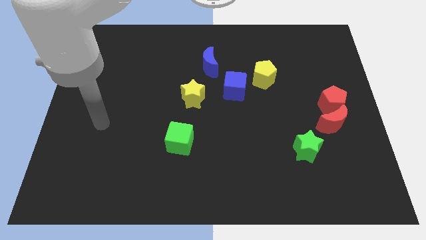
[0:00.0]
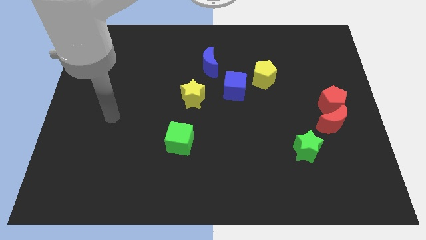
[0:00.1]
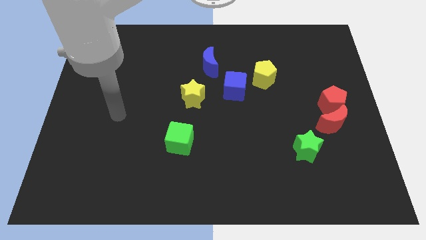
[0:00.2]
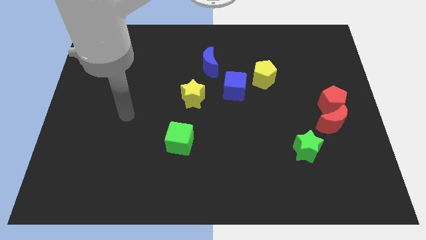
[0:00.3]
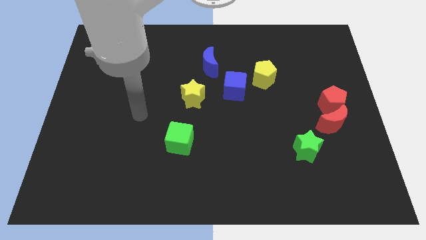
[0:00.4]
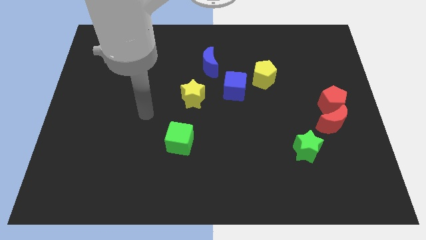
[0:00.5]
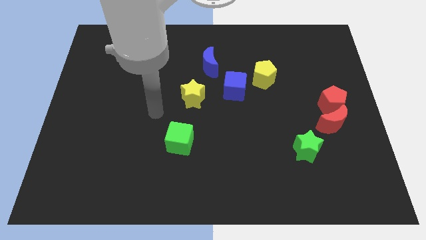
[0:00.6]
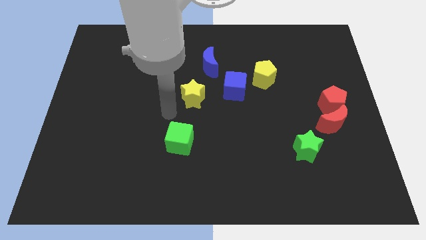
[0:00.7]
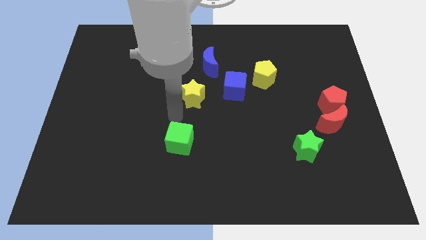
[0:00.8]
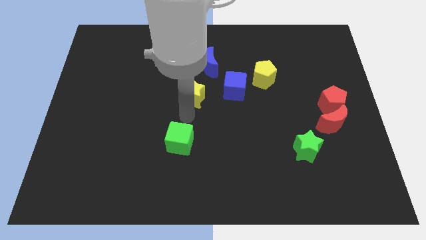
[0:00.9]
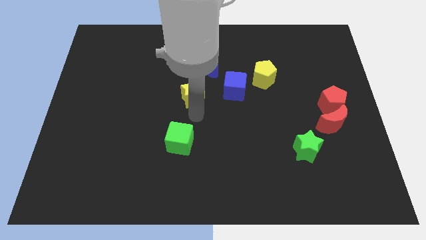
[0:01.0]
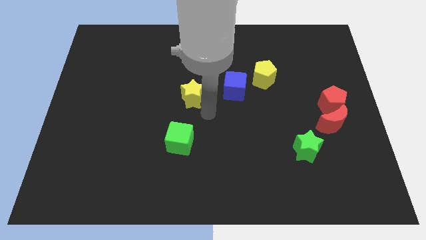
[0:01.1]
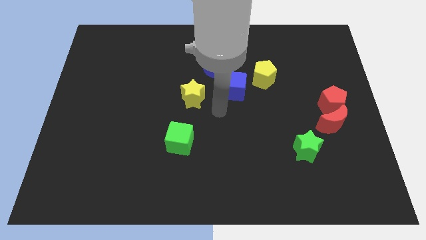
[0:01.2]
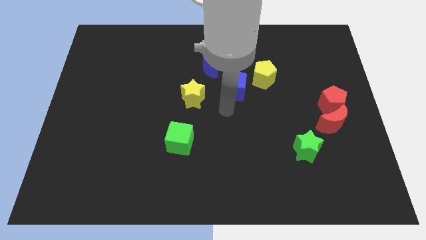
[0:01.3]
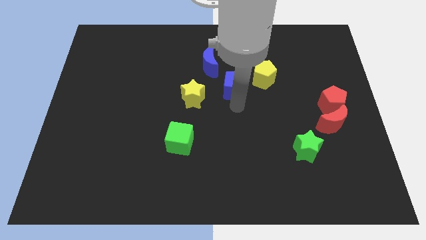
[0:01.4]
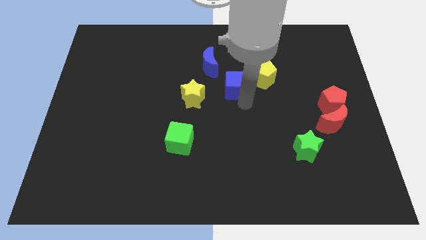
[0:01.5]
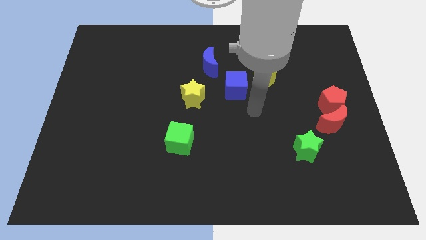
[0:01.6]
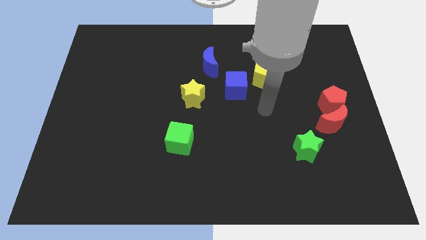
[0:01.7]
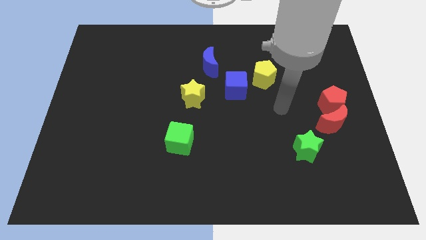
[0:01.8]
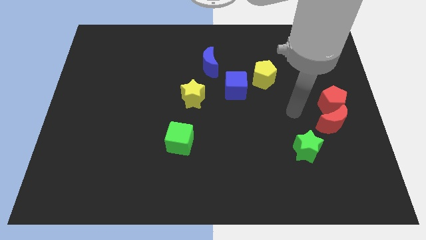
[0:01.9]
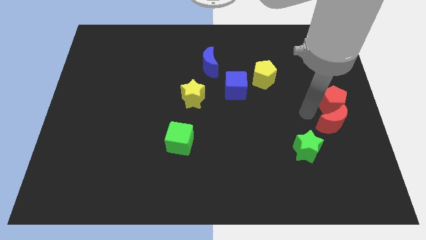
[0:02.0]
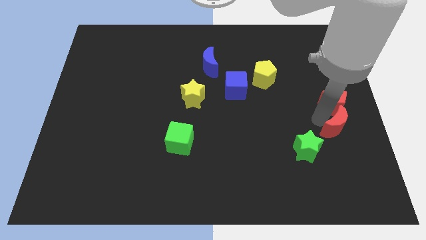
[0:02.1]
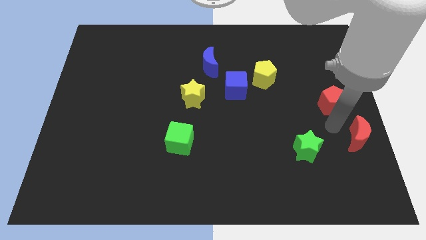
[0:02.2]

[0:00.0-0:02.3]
pull the red pentagon apart from the red moon

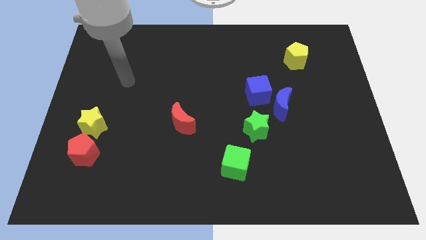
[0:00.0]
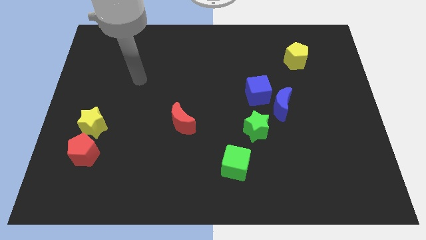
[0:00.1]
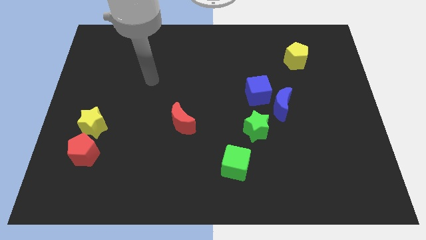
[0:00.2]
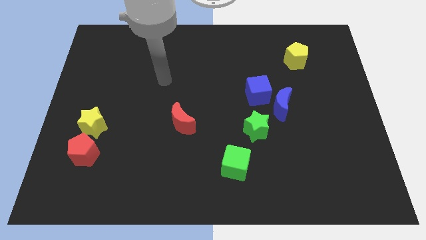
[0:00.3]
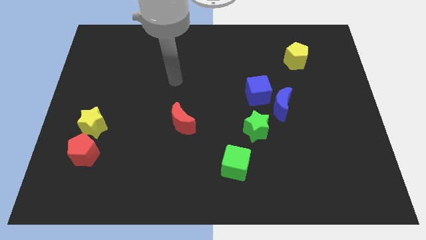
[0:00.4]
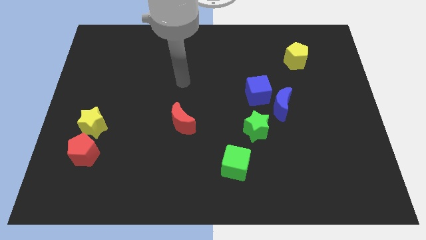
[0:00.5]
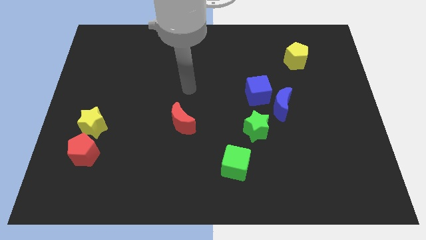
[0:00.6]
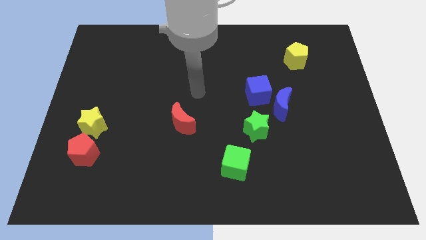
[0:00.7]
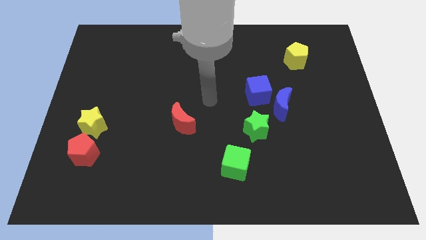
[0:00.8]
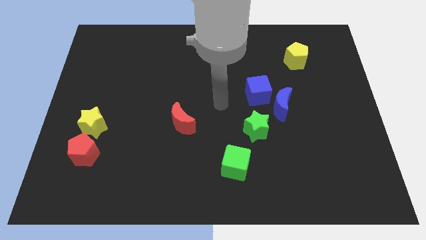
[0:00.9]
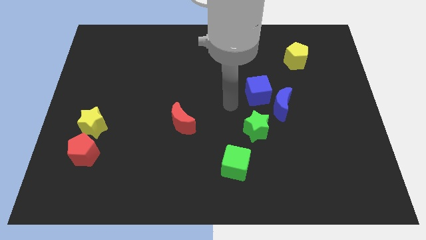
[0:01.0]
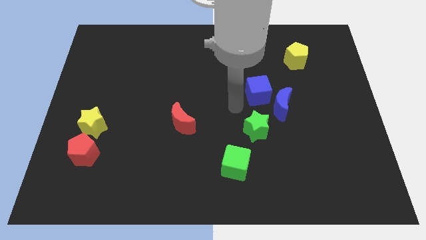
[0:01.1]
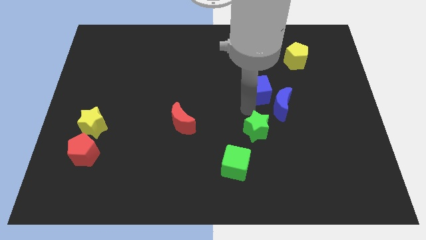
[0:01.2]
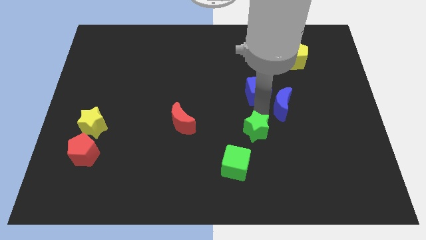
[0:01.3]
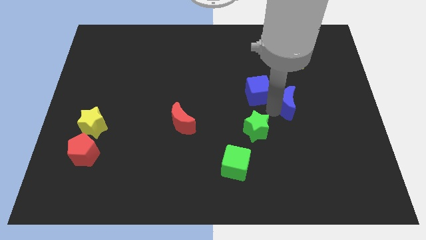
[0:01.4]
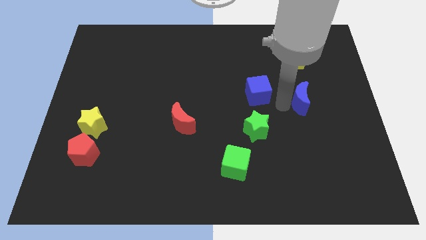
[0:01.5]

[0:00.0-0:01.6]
separate the blue cube from the blue moon

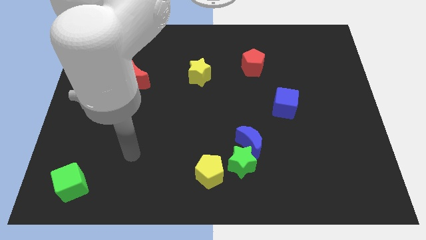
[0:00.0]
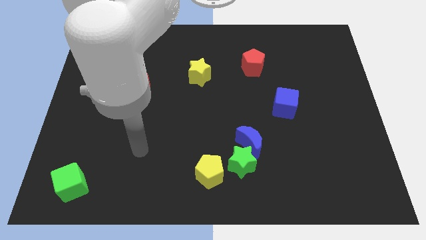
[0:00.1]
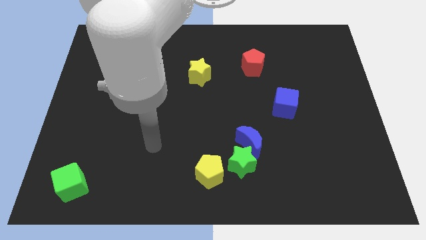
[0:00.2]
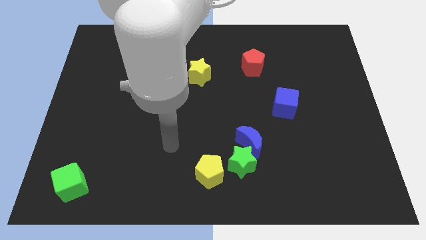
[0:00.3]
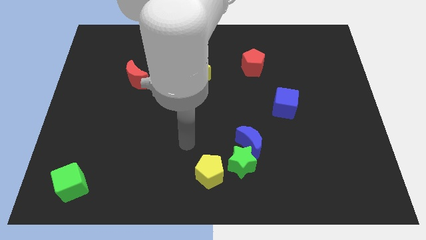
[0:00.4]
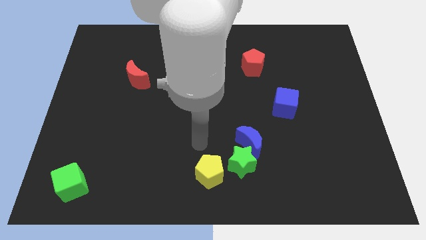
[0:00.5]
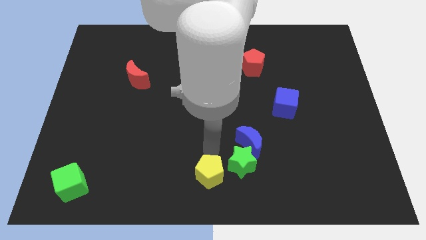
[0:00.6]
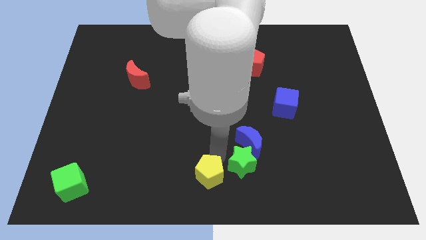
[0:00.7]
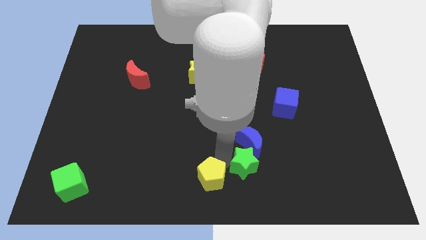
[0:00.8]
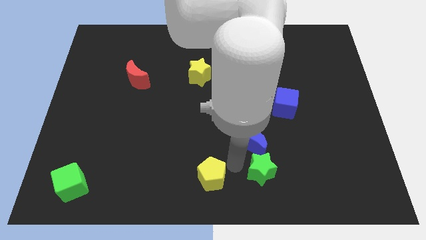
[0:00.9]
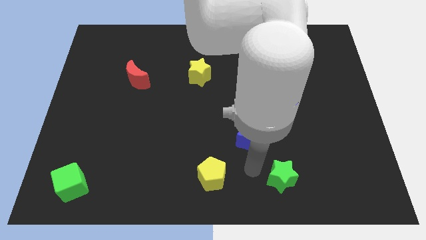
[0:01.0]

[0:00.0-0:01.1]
separate the blue moon from the green star

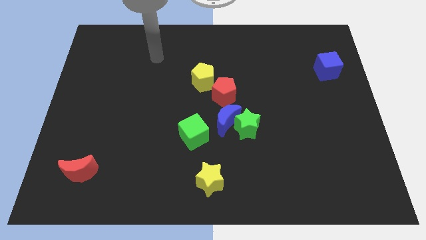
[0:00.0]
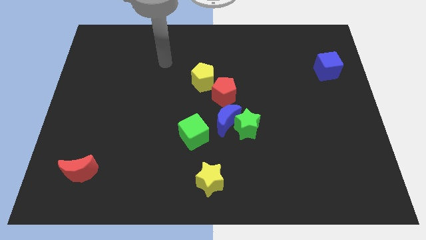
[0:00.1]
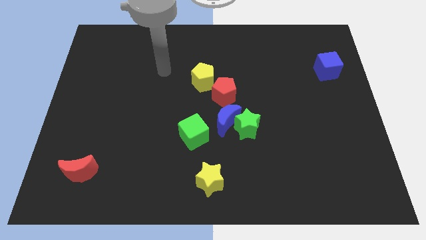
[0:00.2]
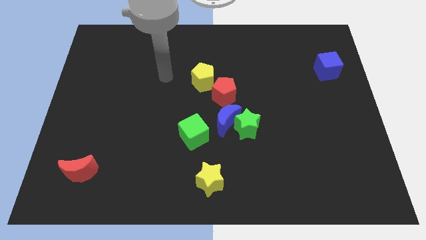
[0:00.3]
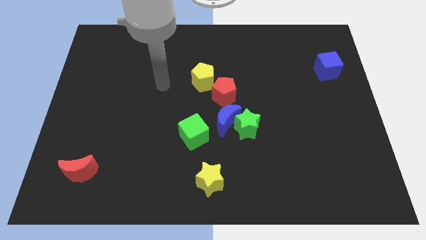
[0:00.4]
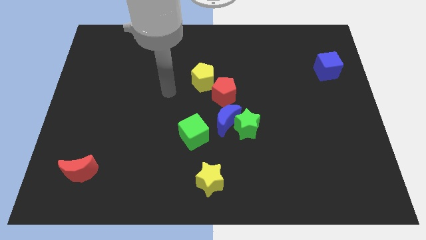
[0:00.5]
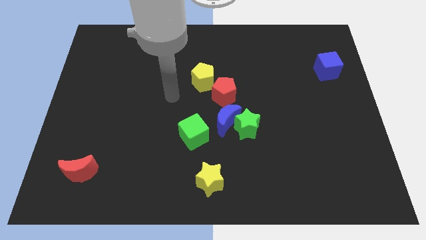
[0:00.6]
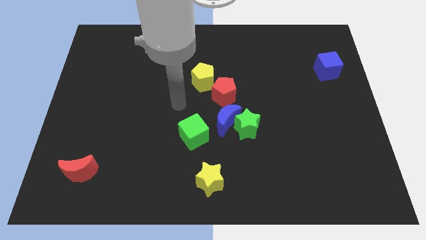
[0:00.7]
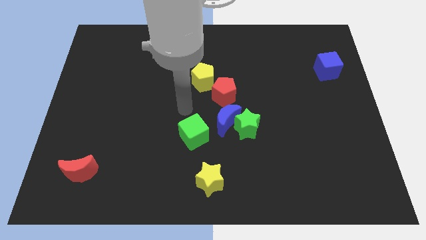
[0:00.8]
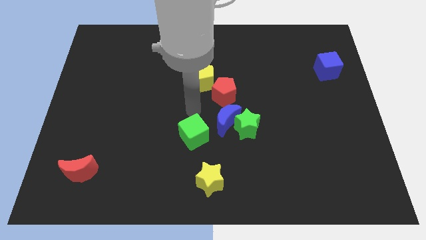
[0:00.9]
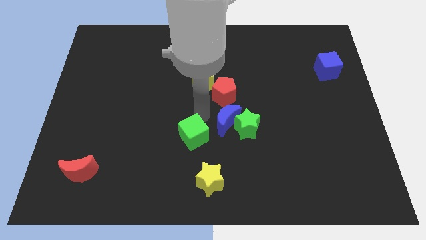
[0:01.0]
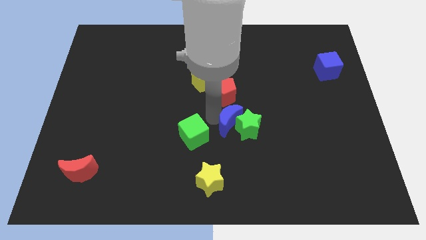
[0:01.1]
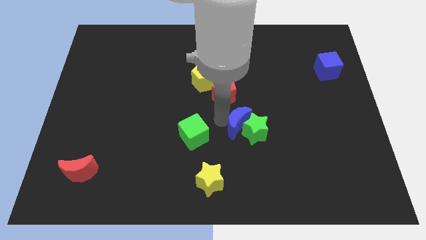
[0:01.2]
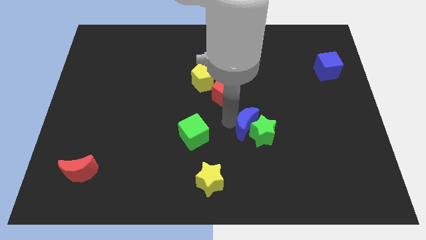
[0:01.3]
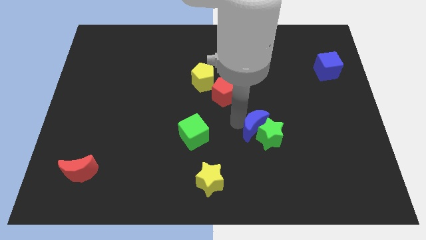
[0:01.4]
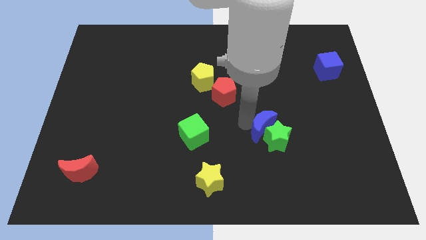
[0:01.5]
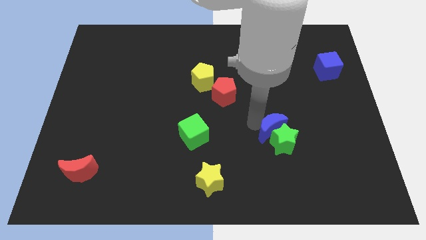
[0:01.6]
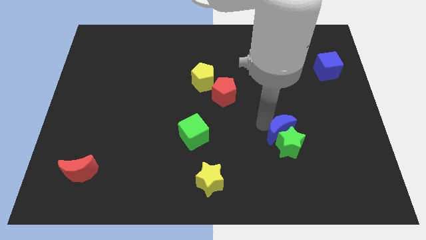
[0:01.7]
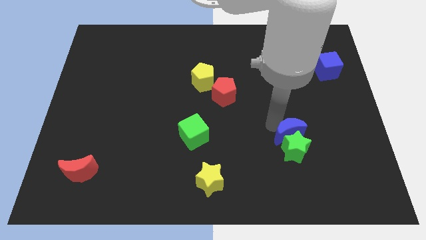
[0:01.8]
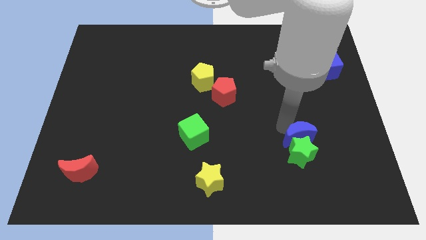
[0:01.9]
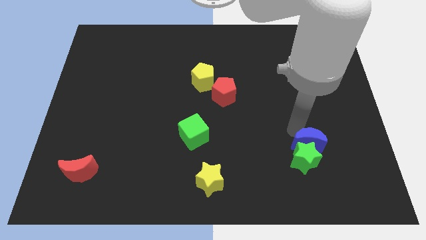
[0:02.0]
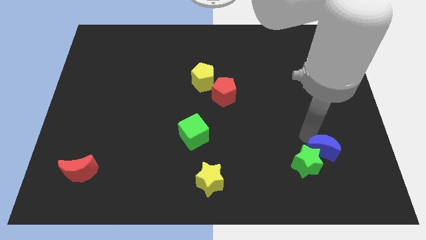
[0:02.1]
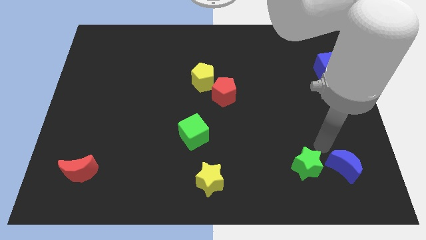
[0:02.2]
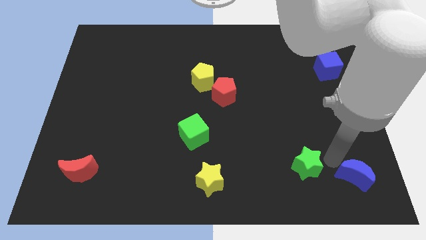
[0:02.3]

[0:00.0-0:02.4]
move the green star away from the blue moon

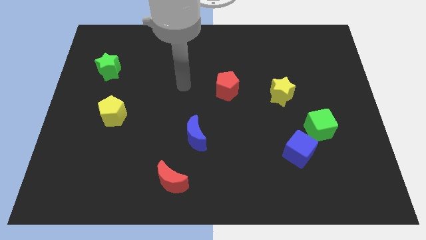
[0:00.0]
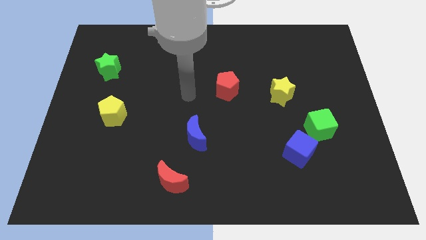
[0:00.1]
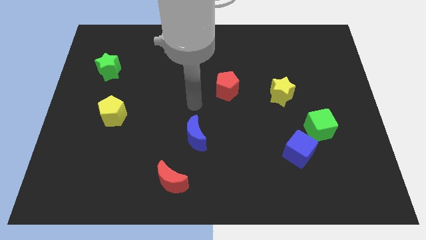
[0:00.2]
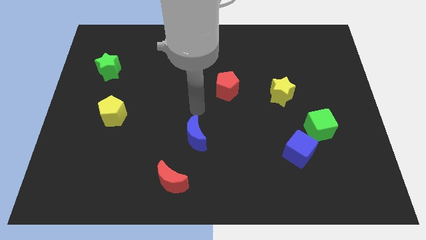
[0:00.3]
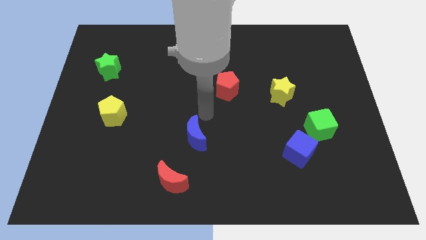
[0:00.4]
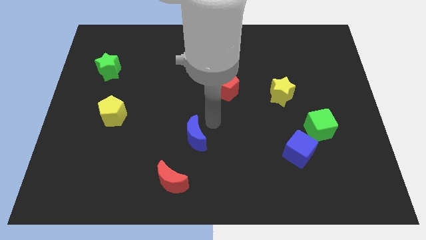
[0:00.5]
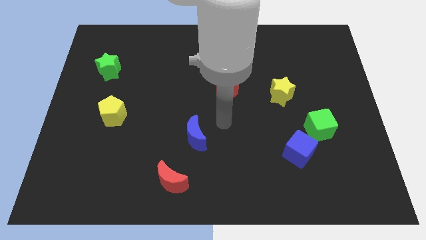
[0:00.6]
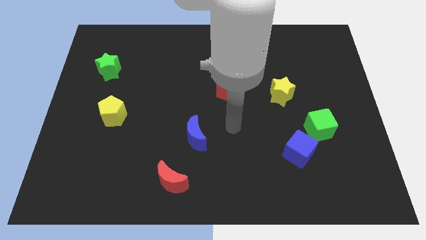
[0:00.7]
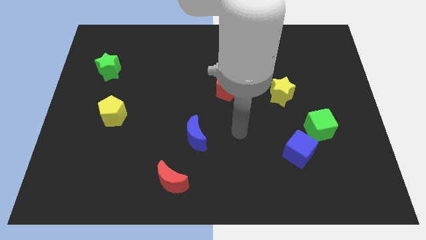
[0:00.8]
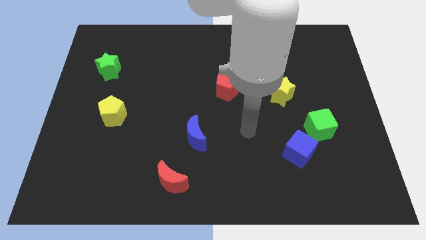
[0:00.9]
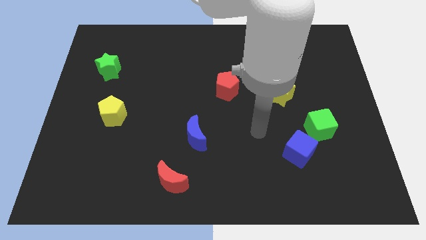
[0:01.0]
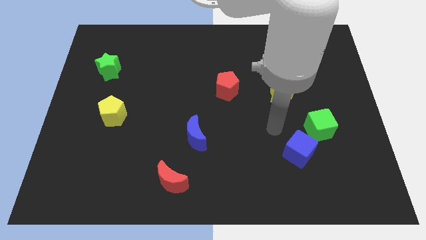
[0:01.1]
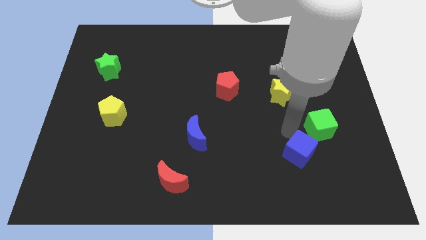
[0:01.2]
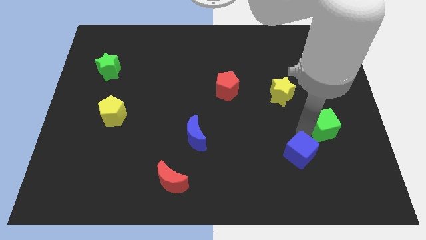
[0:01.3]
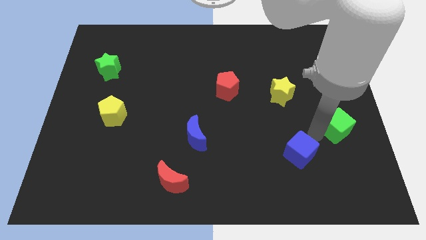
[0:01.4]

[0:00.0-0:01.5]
move the blue cube away from the green cube

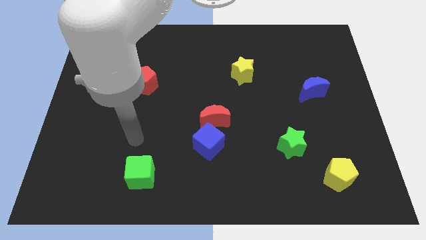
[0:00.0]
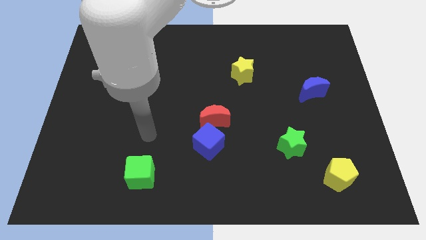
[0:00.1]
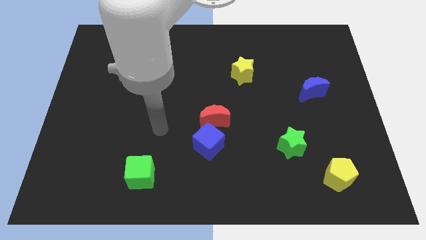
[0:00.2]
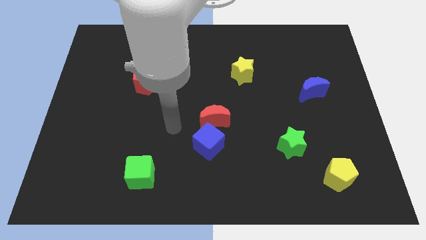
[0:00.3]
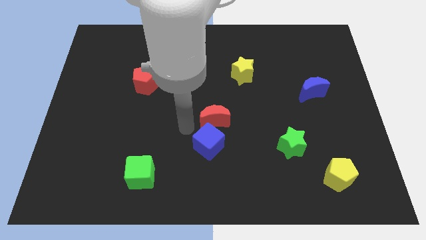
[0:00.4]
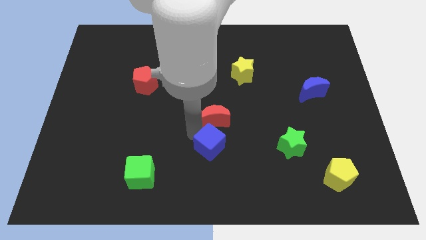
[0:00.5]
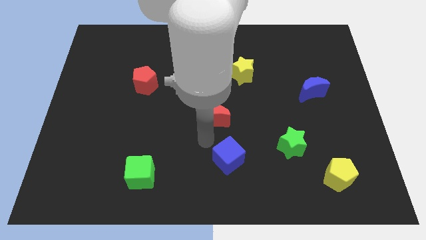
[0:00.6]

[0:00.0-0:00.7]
pull the red moon apart from the blue cube
